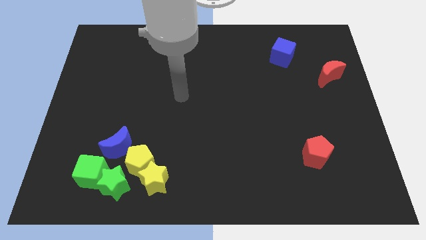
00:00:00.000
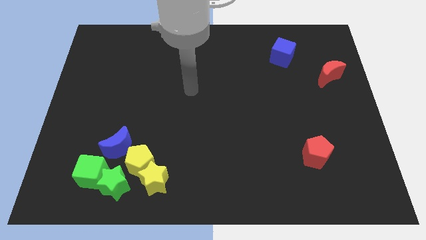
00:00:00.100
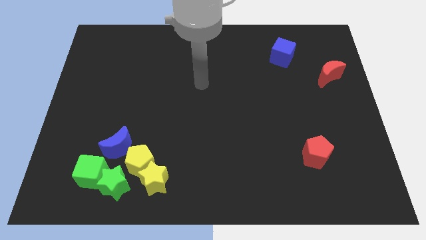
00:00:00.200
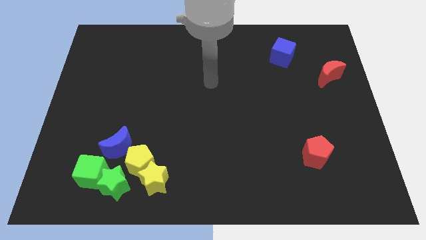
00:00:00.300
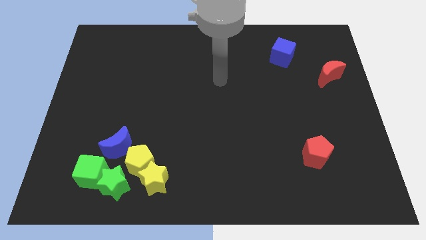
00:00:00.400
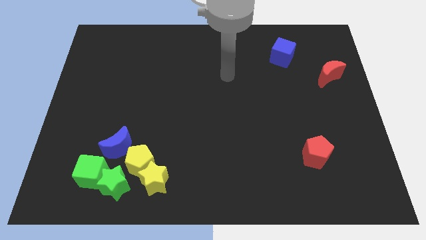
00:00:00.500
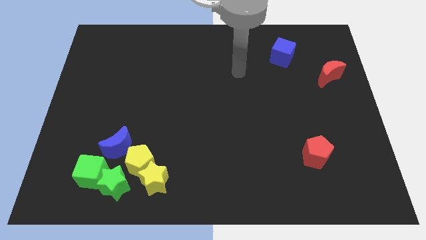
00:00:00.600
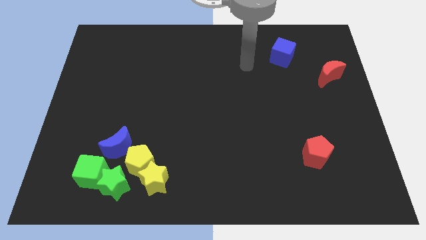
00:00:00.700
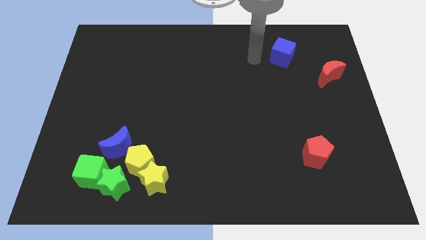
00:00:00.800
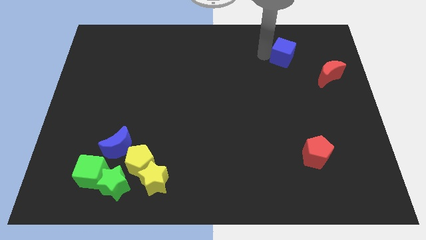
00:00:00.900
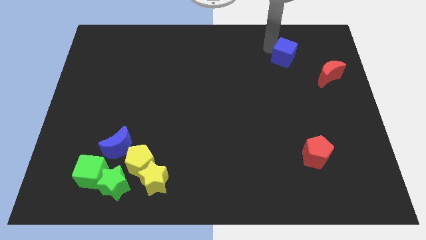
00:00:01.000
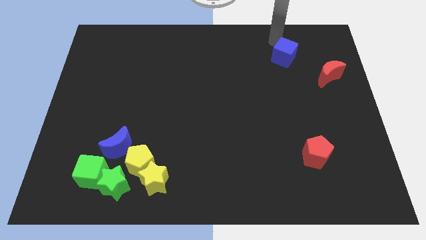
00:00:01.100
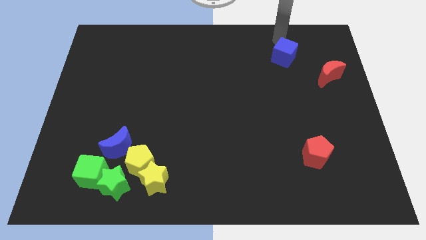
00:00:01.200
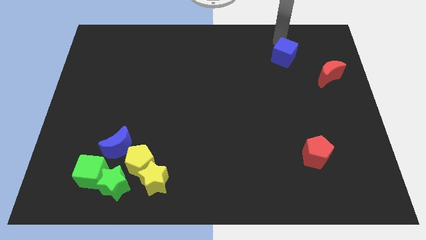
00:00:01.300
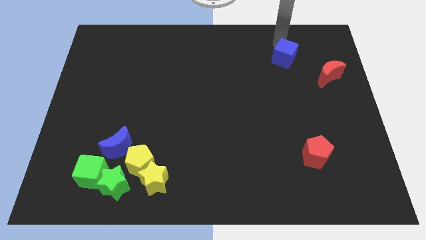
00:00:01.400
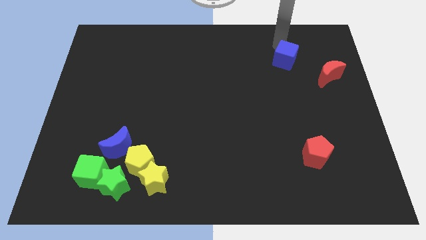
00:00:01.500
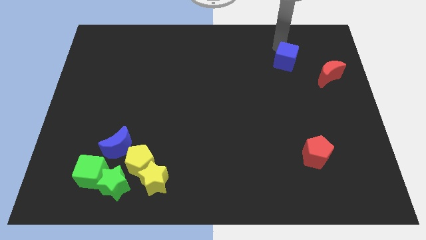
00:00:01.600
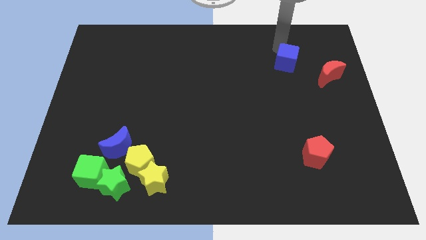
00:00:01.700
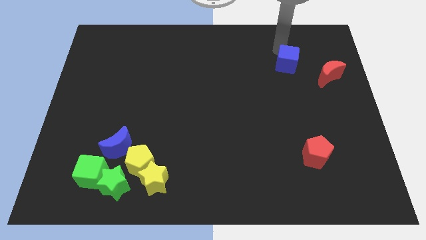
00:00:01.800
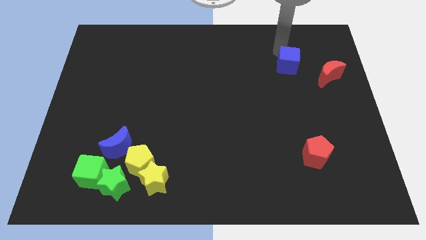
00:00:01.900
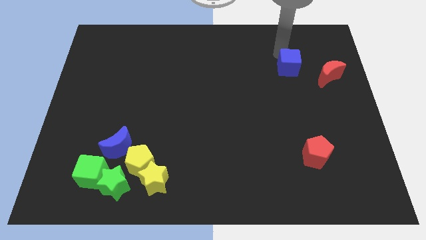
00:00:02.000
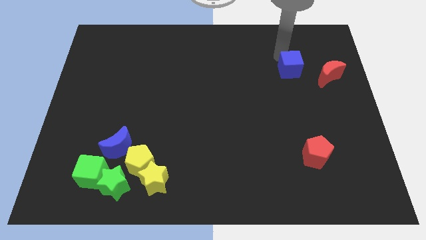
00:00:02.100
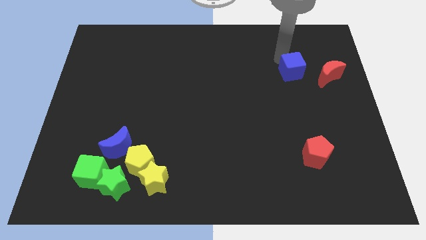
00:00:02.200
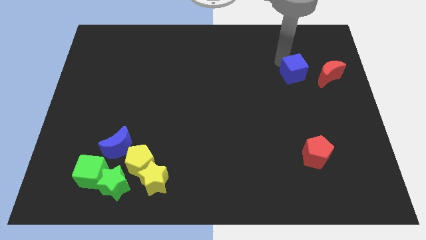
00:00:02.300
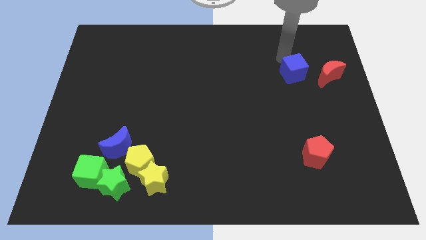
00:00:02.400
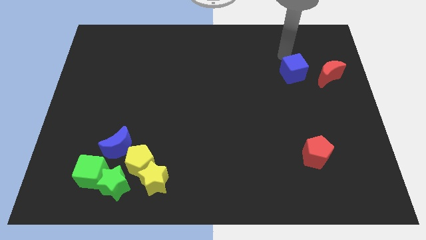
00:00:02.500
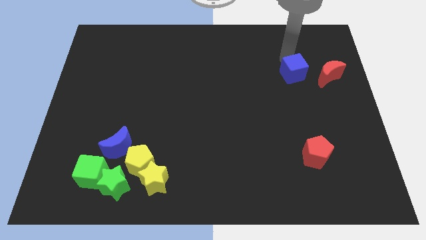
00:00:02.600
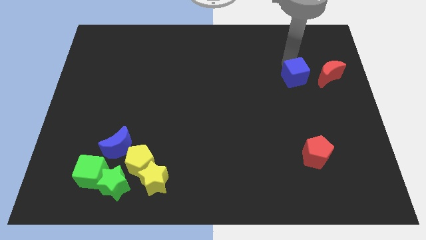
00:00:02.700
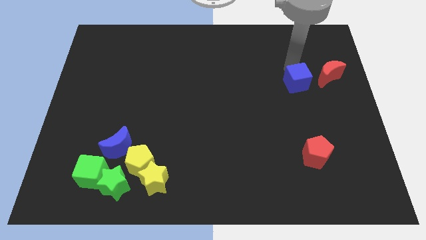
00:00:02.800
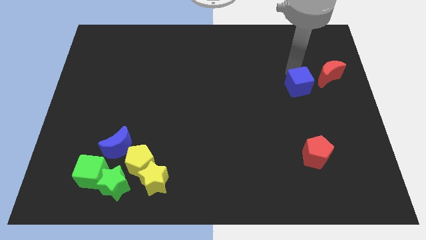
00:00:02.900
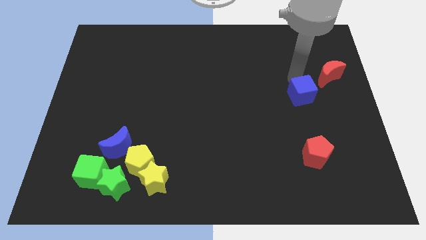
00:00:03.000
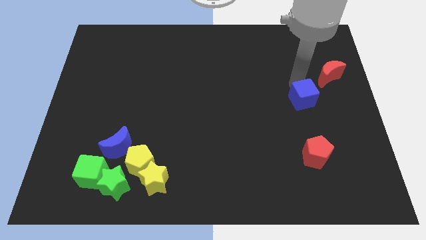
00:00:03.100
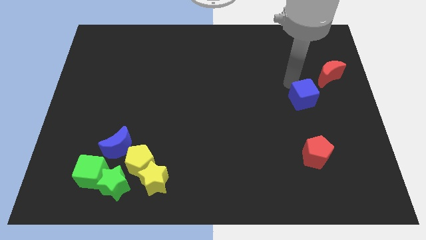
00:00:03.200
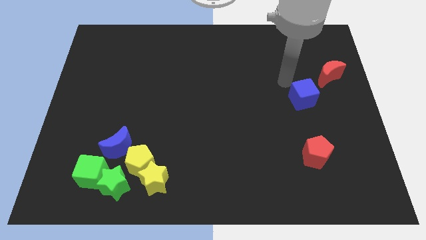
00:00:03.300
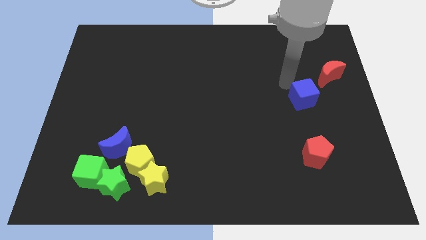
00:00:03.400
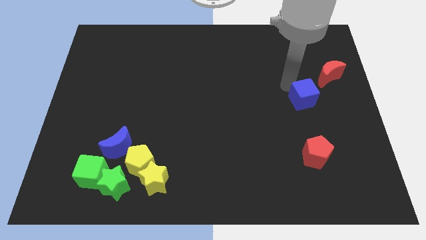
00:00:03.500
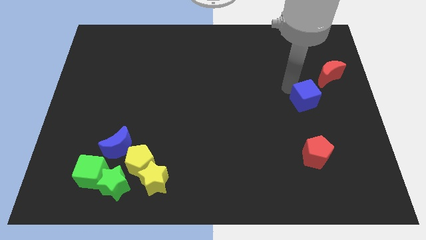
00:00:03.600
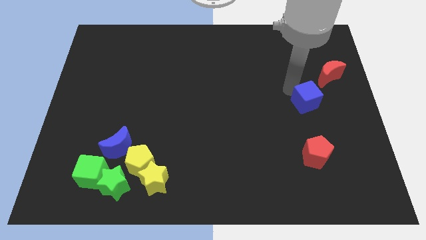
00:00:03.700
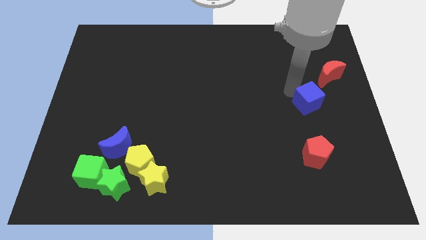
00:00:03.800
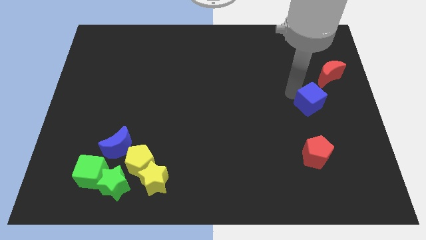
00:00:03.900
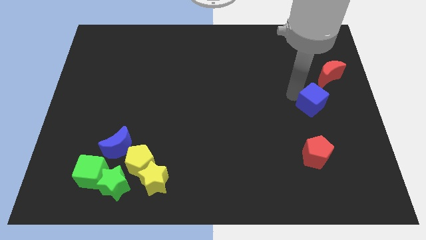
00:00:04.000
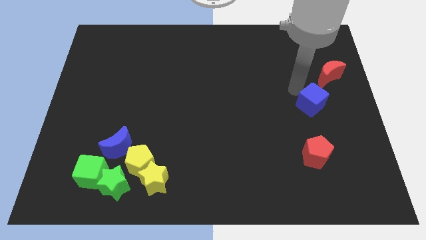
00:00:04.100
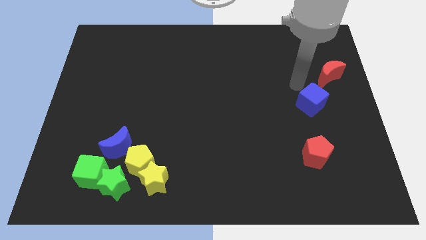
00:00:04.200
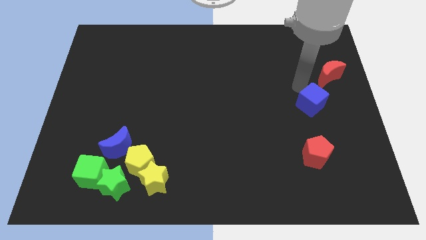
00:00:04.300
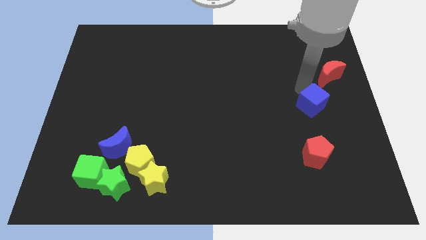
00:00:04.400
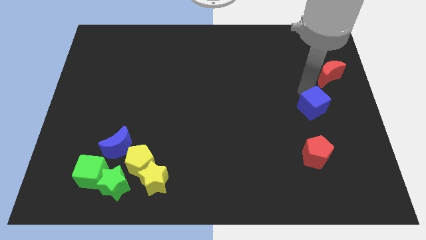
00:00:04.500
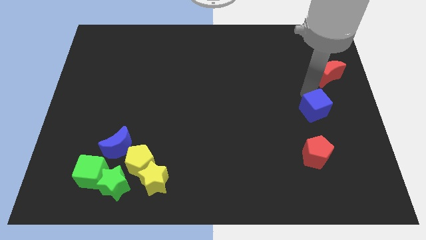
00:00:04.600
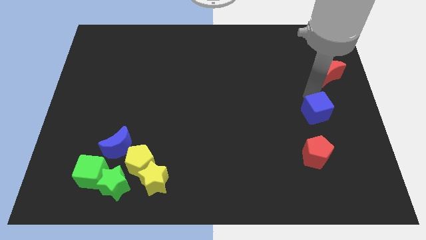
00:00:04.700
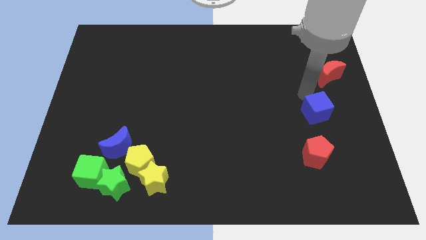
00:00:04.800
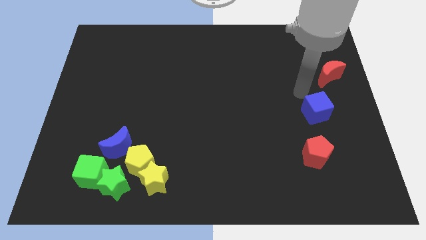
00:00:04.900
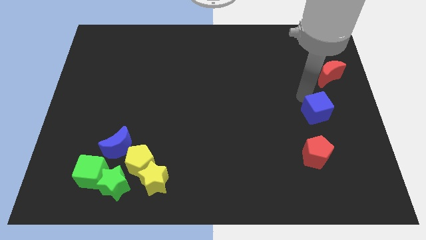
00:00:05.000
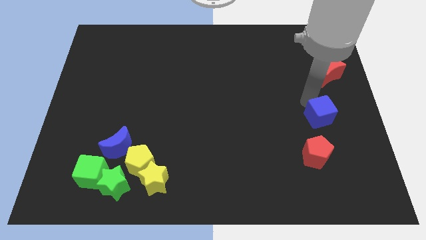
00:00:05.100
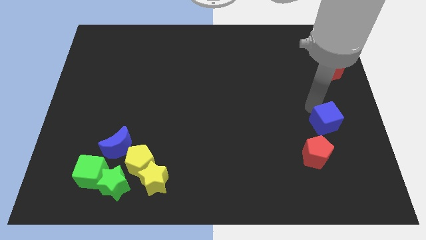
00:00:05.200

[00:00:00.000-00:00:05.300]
push the blue cube to the top right of the red pentagon

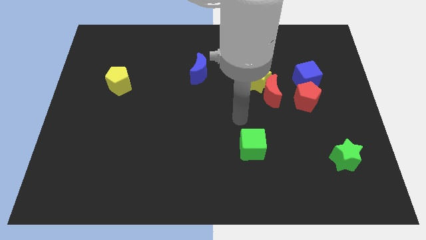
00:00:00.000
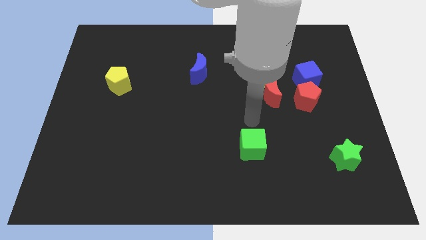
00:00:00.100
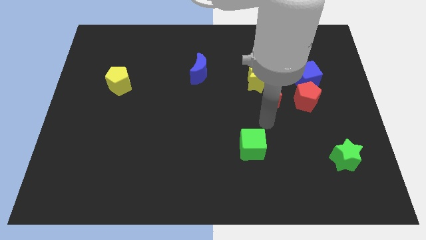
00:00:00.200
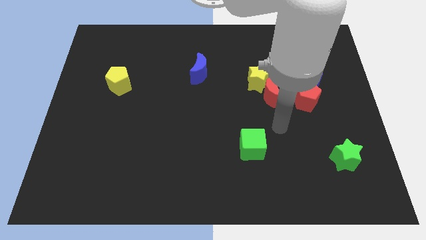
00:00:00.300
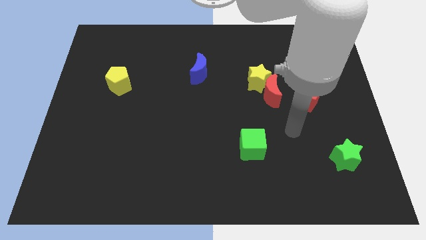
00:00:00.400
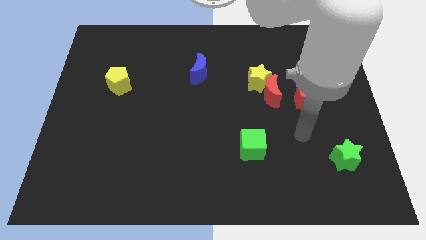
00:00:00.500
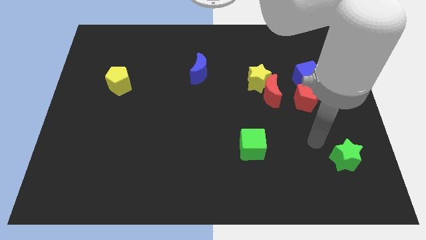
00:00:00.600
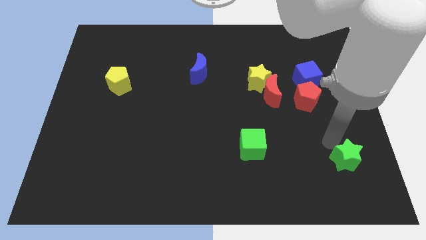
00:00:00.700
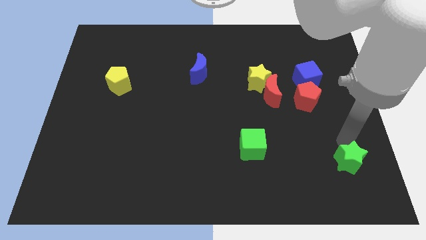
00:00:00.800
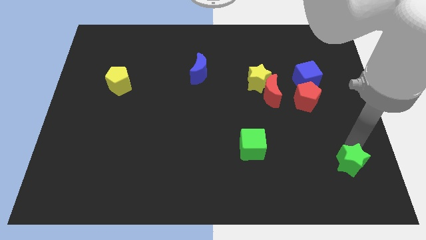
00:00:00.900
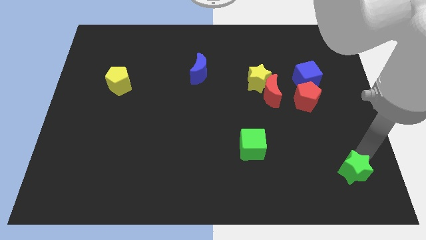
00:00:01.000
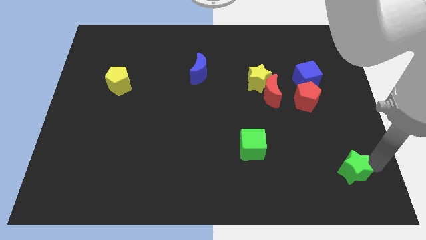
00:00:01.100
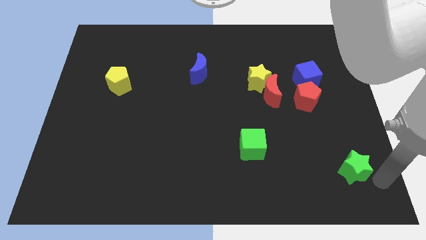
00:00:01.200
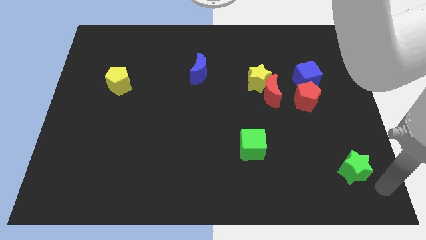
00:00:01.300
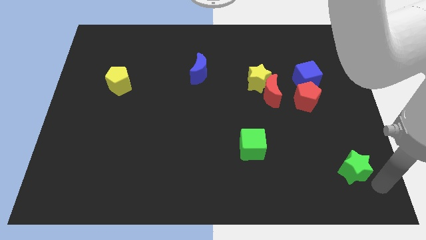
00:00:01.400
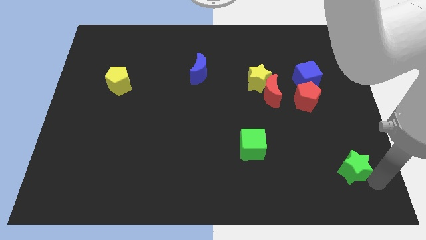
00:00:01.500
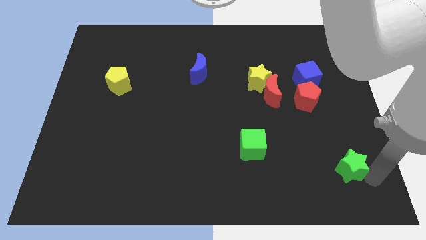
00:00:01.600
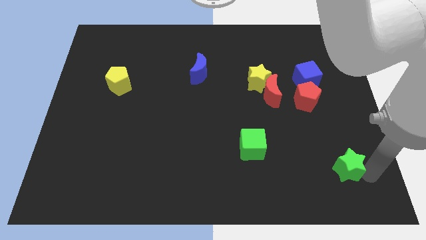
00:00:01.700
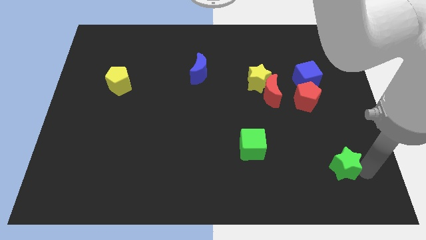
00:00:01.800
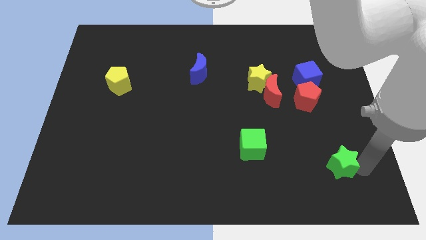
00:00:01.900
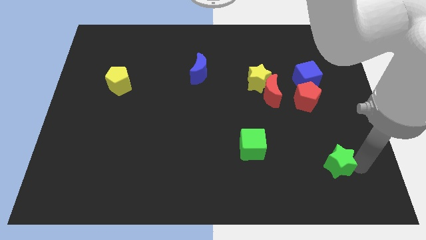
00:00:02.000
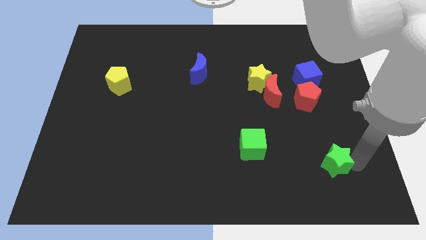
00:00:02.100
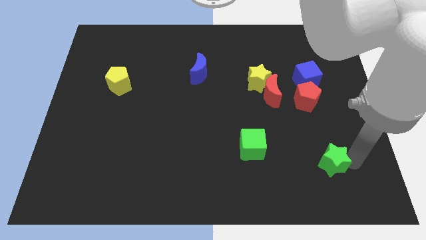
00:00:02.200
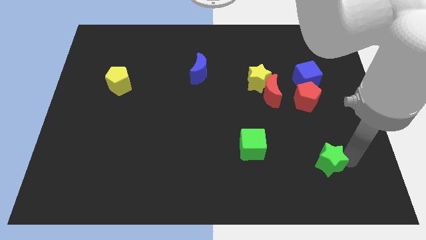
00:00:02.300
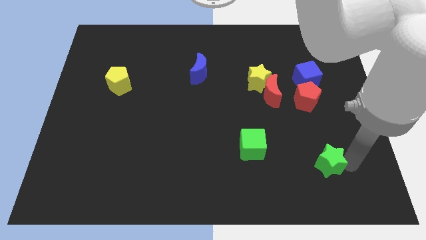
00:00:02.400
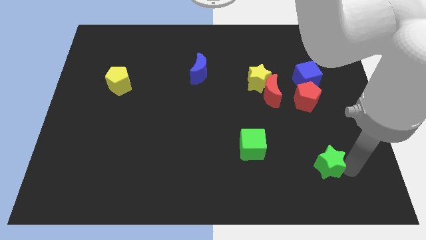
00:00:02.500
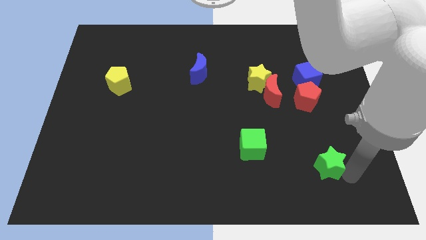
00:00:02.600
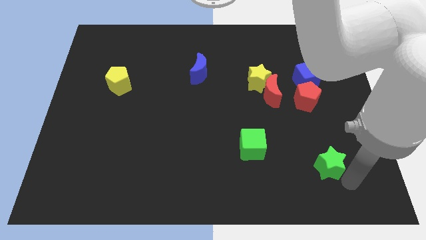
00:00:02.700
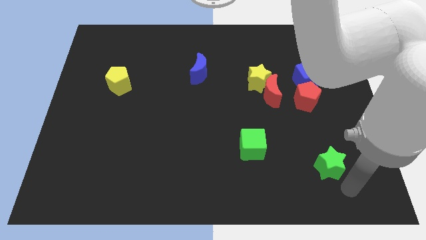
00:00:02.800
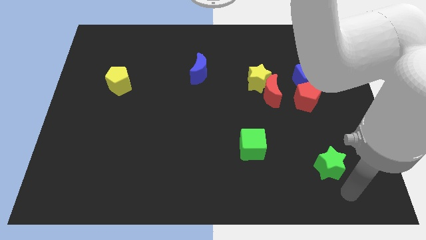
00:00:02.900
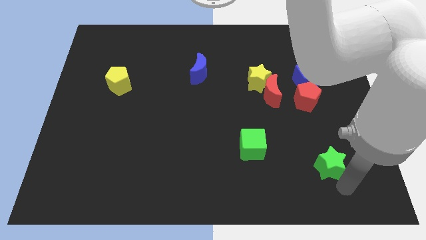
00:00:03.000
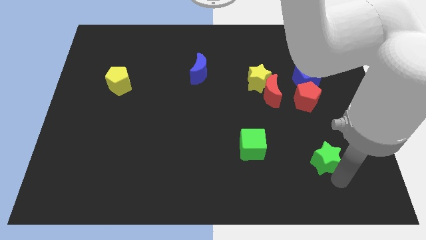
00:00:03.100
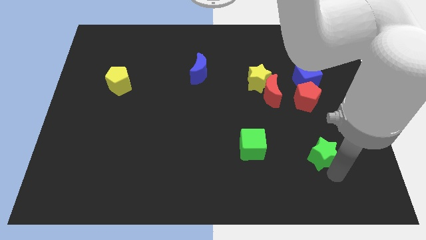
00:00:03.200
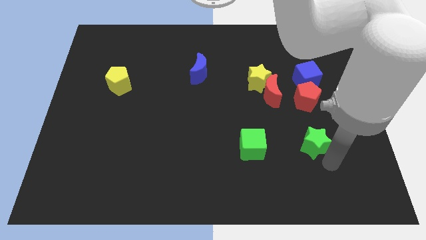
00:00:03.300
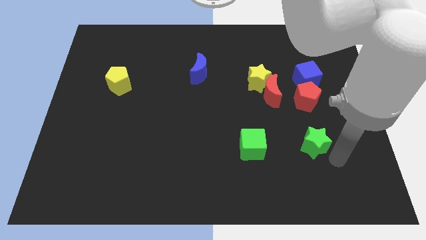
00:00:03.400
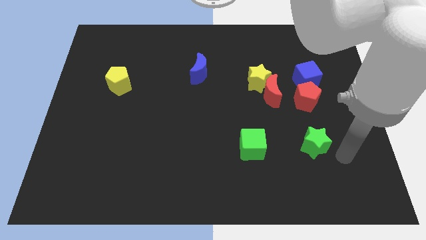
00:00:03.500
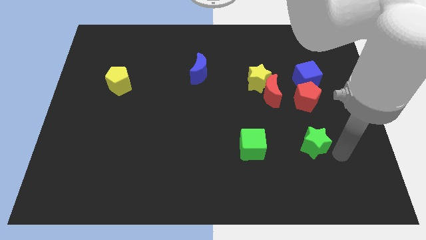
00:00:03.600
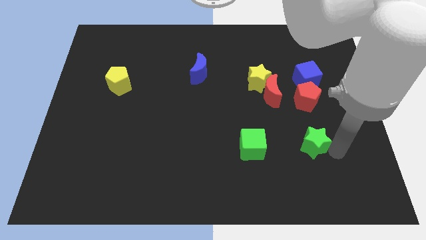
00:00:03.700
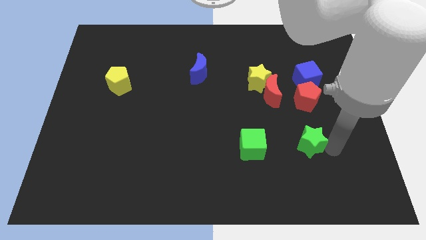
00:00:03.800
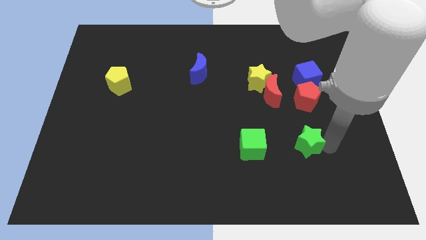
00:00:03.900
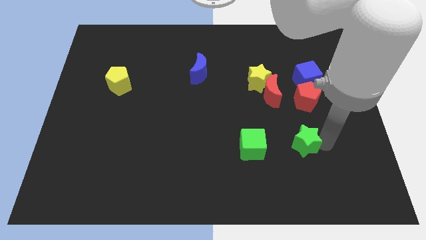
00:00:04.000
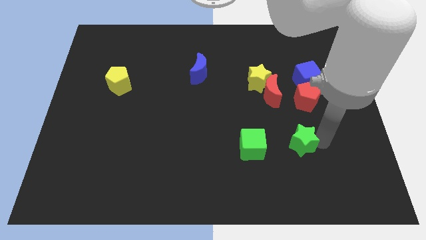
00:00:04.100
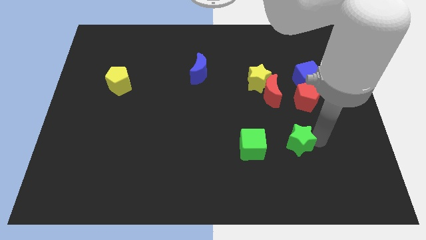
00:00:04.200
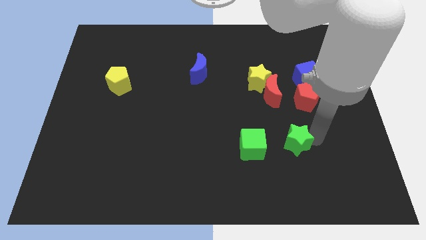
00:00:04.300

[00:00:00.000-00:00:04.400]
slide the green star to the bottom side of the red moon
